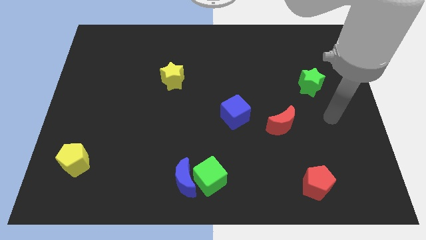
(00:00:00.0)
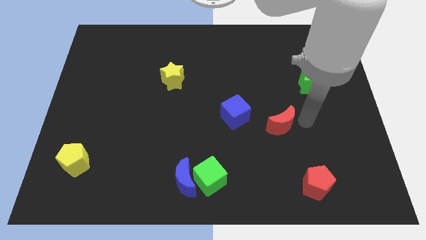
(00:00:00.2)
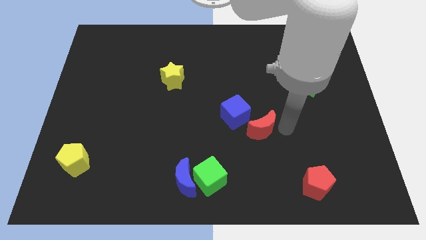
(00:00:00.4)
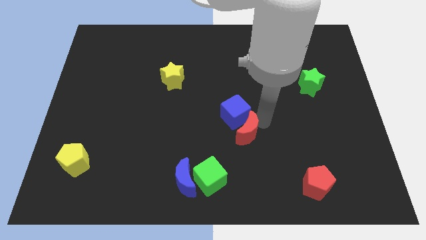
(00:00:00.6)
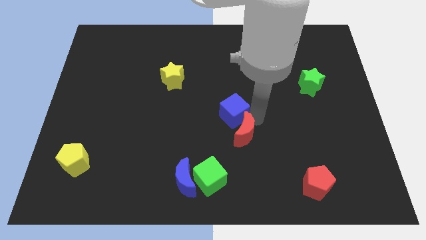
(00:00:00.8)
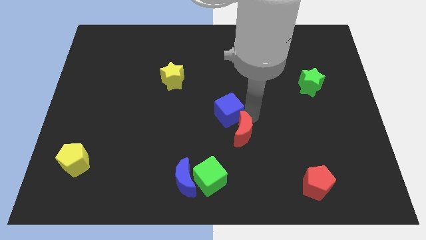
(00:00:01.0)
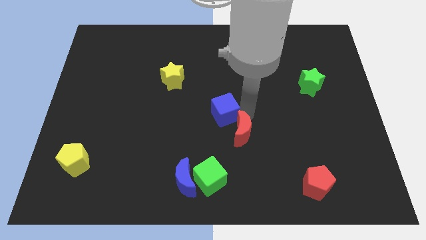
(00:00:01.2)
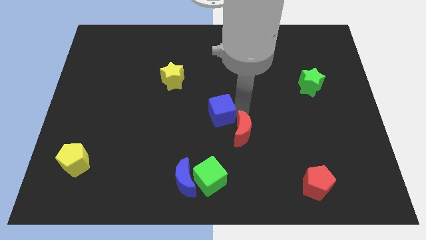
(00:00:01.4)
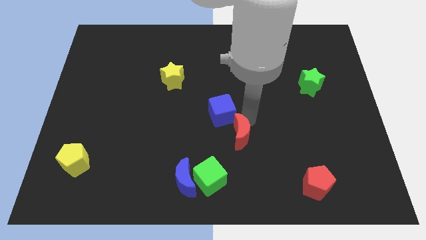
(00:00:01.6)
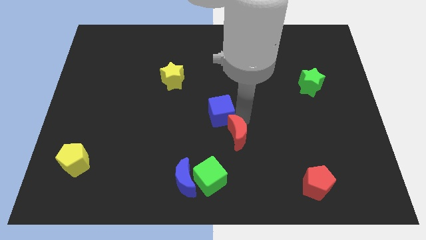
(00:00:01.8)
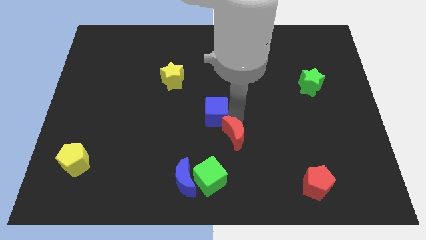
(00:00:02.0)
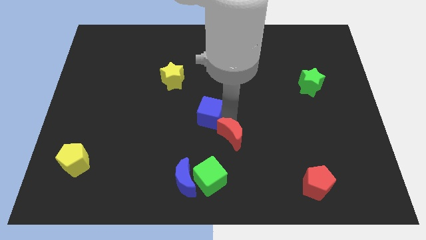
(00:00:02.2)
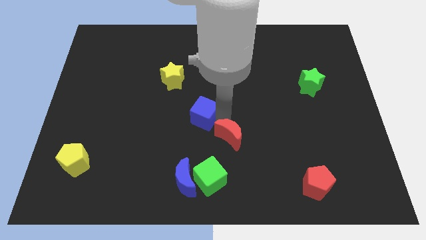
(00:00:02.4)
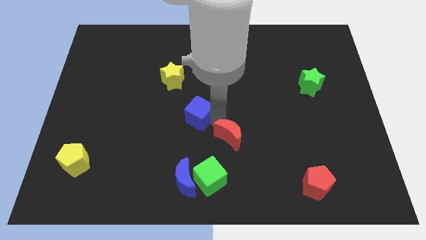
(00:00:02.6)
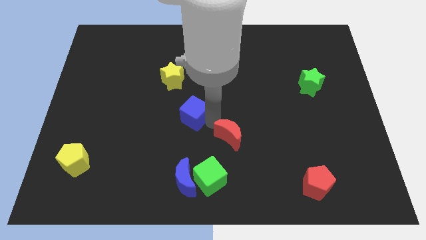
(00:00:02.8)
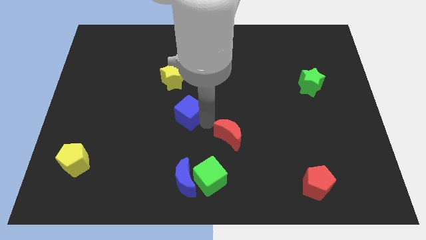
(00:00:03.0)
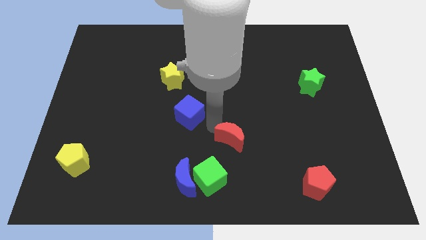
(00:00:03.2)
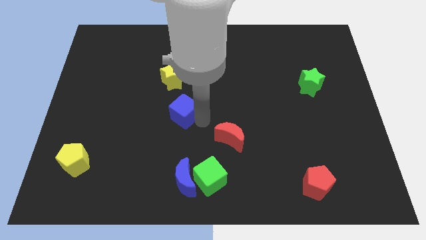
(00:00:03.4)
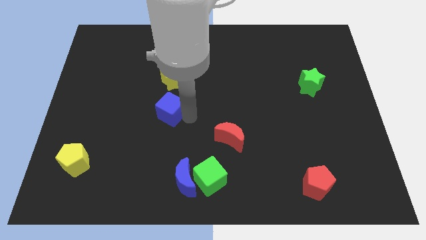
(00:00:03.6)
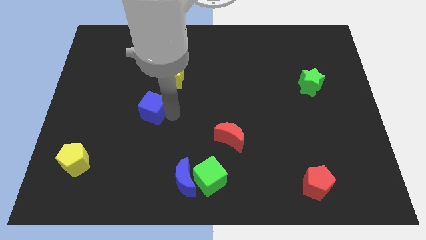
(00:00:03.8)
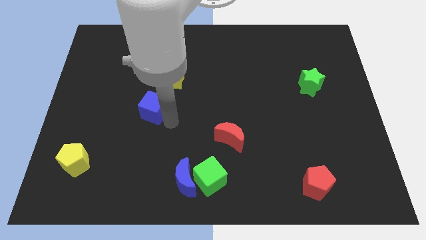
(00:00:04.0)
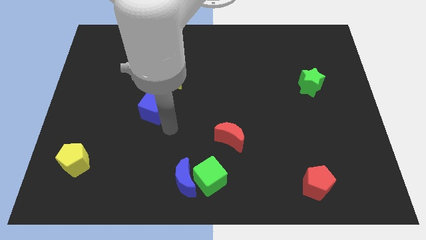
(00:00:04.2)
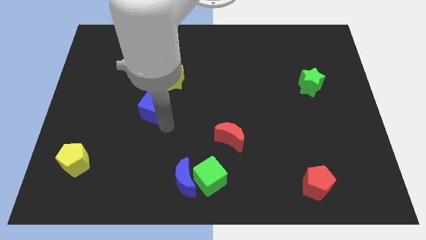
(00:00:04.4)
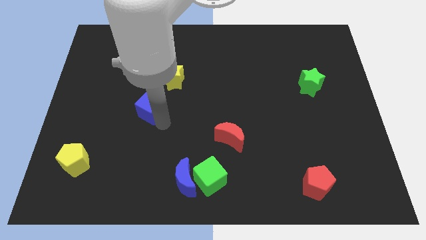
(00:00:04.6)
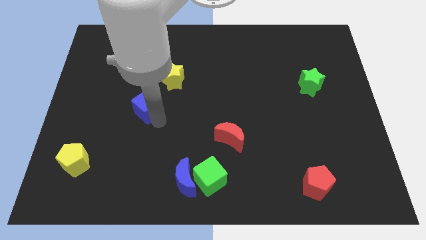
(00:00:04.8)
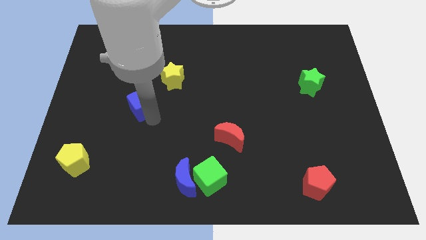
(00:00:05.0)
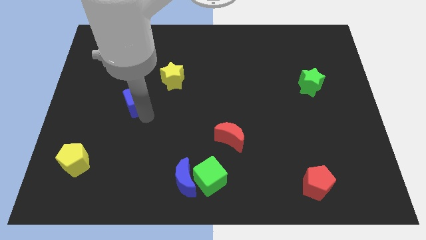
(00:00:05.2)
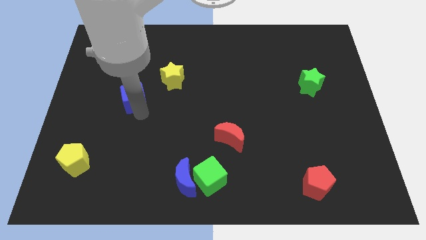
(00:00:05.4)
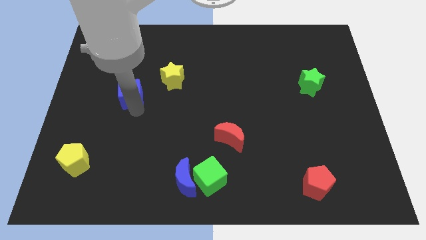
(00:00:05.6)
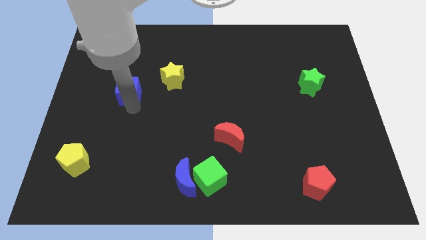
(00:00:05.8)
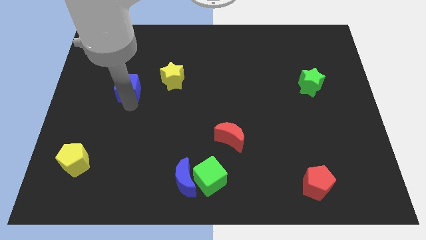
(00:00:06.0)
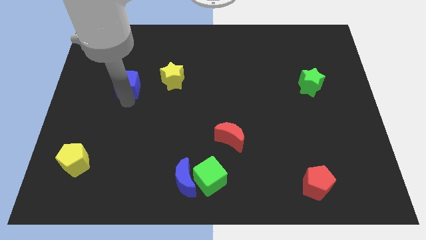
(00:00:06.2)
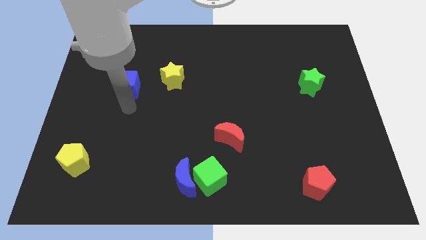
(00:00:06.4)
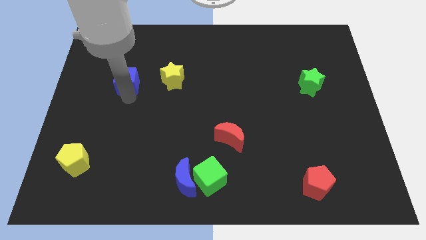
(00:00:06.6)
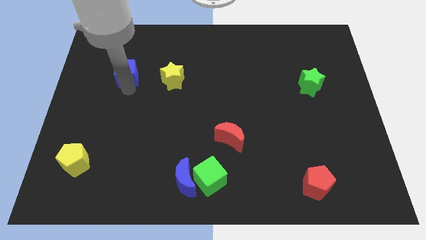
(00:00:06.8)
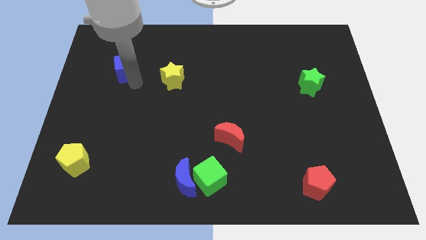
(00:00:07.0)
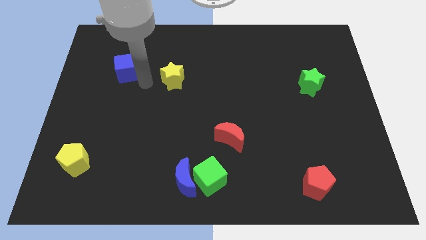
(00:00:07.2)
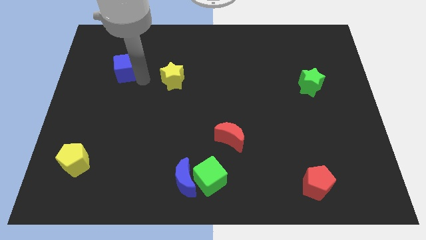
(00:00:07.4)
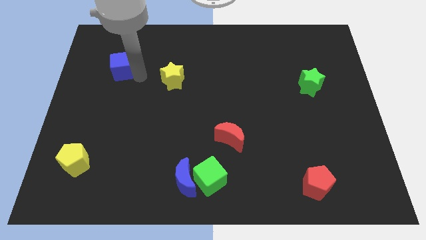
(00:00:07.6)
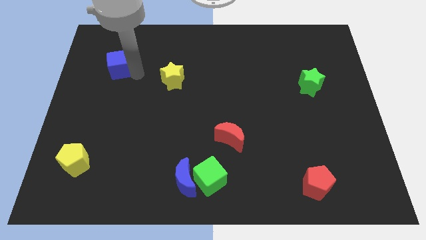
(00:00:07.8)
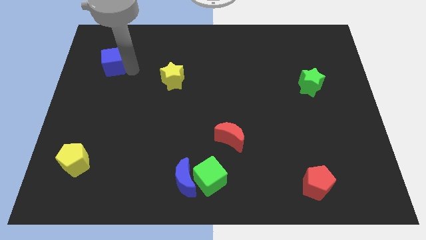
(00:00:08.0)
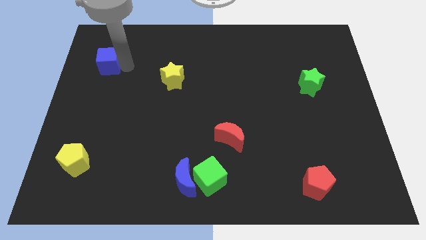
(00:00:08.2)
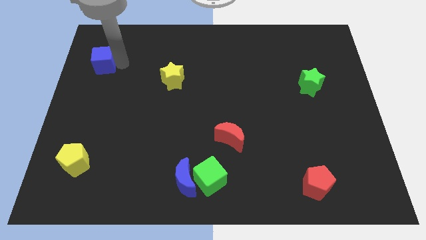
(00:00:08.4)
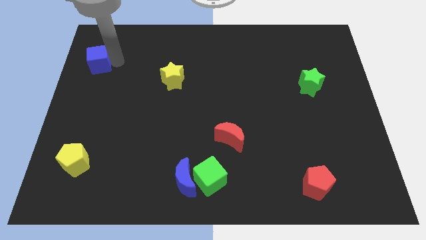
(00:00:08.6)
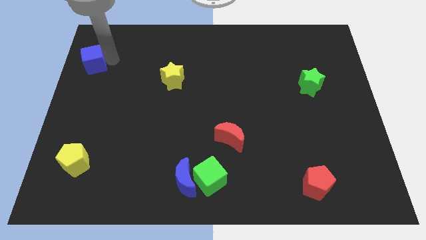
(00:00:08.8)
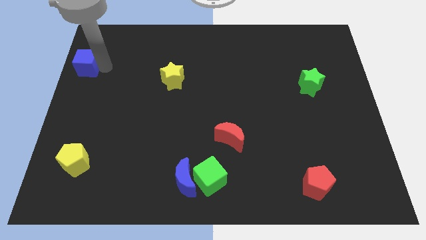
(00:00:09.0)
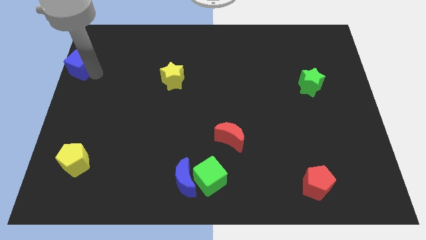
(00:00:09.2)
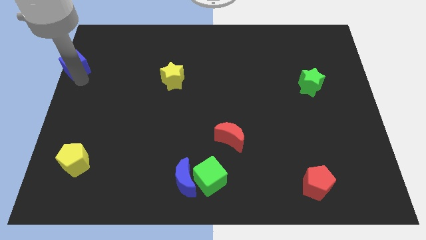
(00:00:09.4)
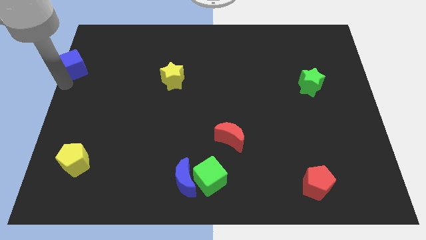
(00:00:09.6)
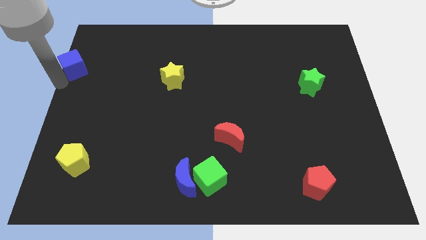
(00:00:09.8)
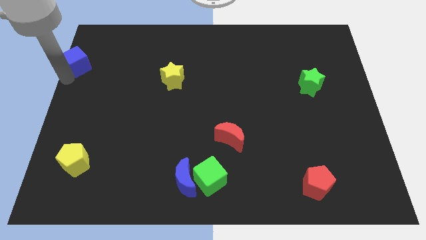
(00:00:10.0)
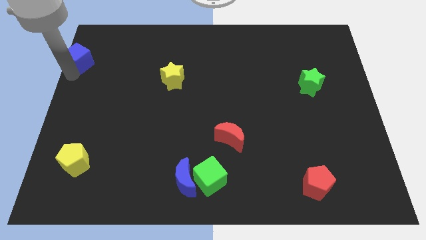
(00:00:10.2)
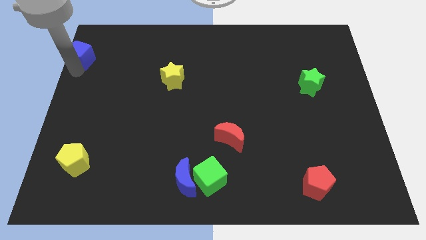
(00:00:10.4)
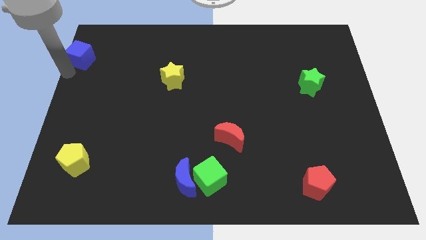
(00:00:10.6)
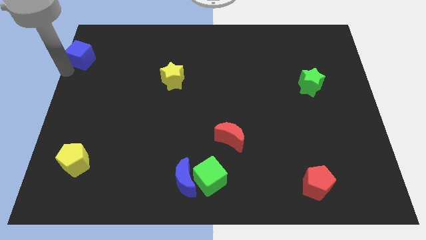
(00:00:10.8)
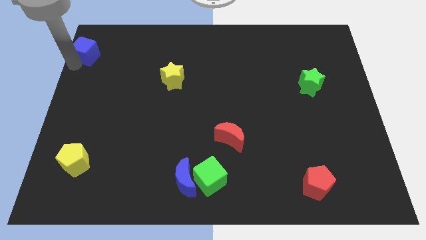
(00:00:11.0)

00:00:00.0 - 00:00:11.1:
put the blue cube to the top left corner

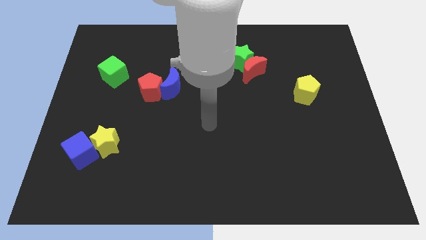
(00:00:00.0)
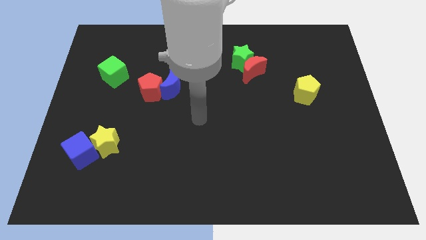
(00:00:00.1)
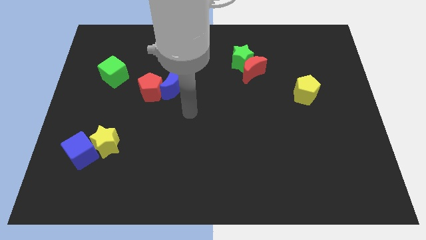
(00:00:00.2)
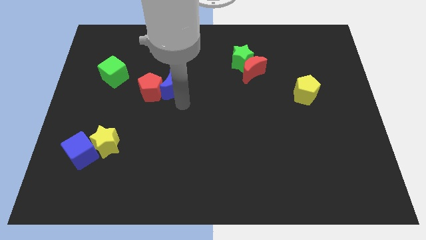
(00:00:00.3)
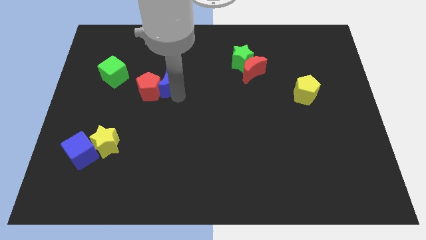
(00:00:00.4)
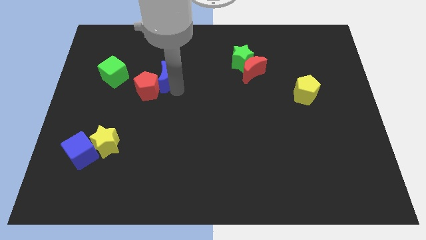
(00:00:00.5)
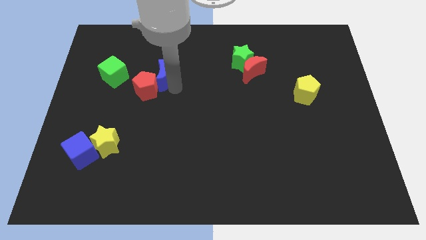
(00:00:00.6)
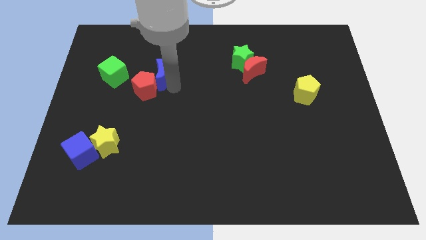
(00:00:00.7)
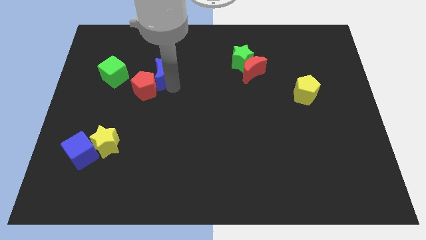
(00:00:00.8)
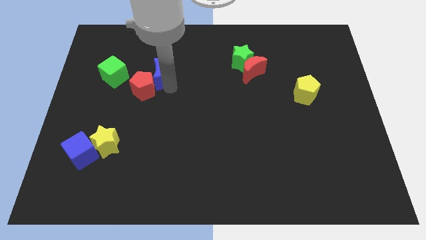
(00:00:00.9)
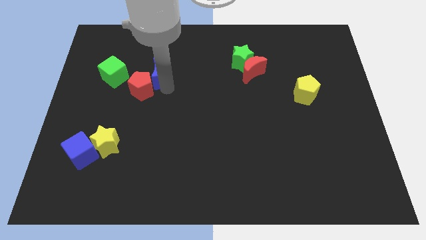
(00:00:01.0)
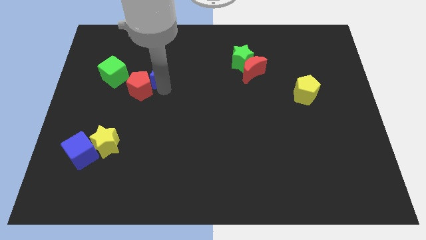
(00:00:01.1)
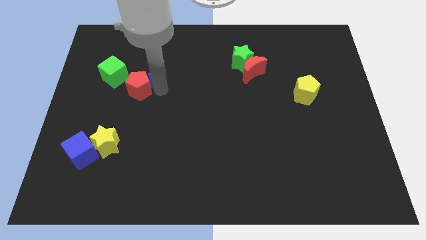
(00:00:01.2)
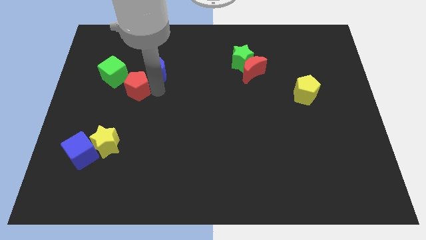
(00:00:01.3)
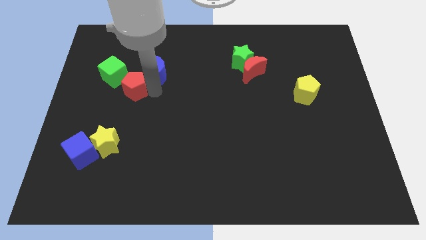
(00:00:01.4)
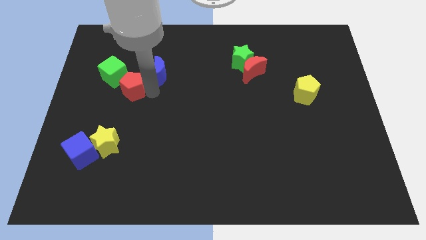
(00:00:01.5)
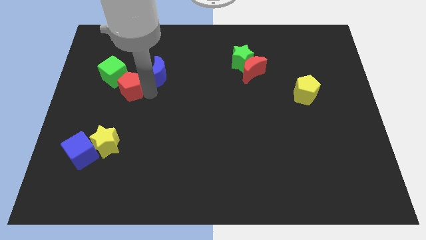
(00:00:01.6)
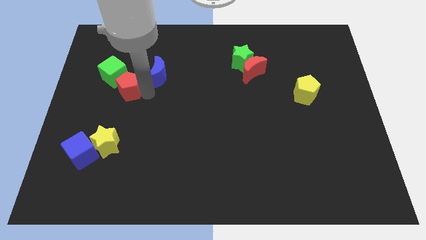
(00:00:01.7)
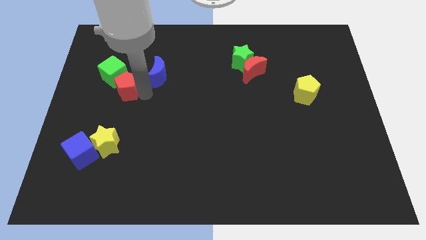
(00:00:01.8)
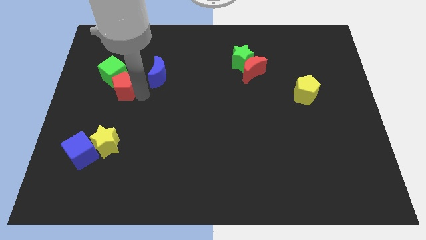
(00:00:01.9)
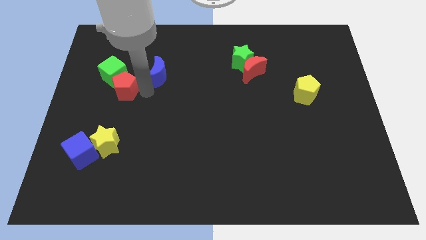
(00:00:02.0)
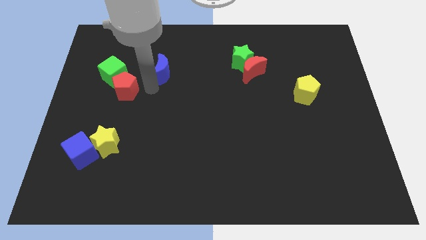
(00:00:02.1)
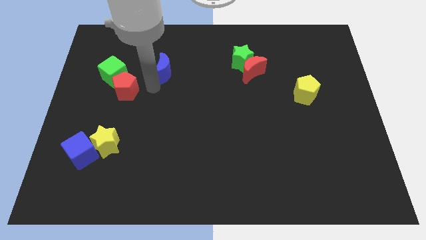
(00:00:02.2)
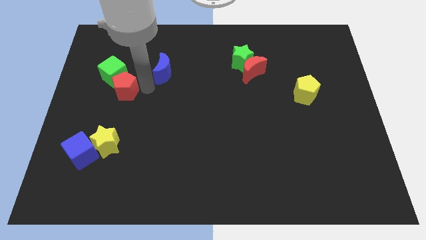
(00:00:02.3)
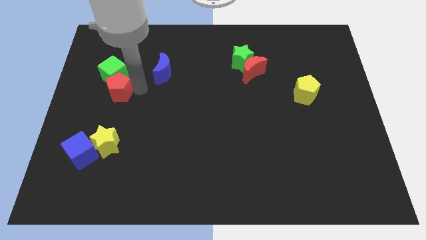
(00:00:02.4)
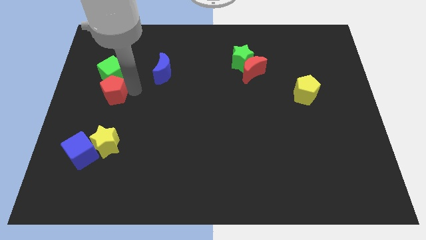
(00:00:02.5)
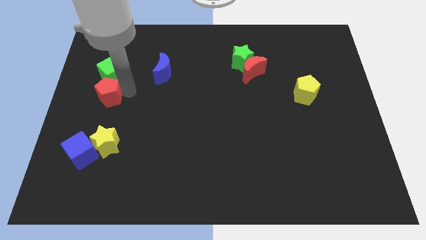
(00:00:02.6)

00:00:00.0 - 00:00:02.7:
put the red pentagon to the center left
